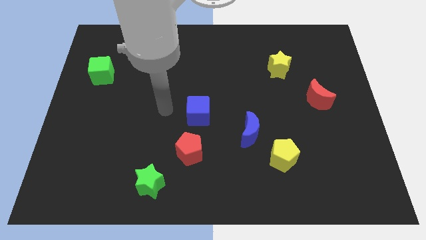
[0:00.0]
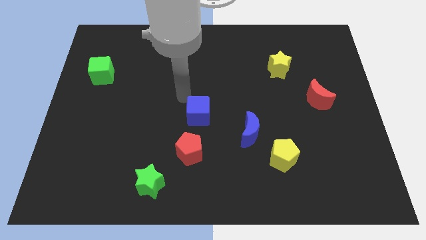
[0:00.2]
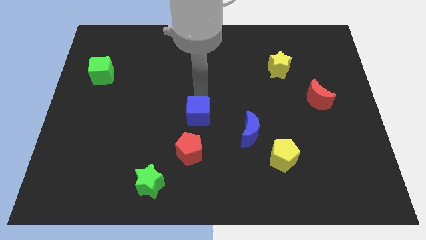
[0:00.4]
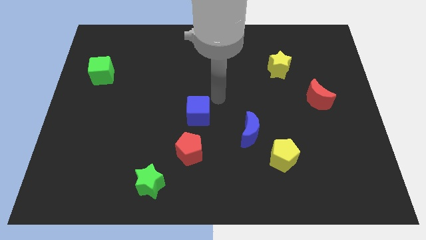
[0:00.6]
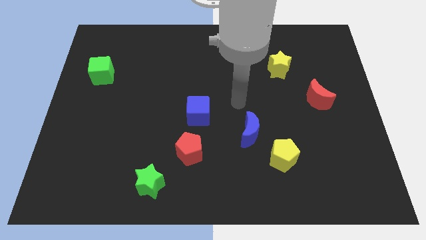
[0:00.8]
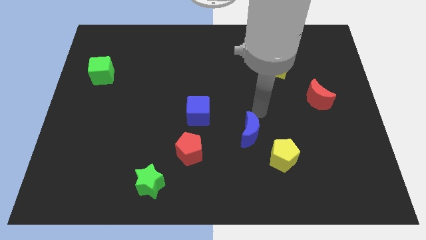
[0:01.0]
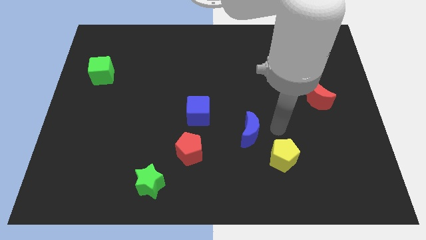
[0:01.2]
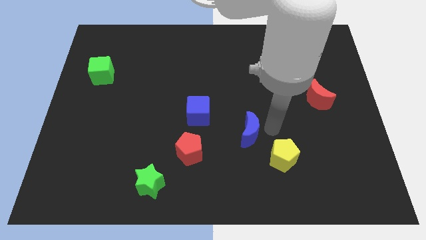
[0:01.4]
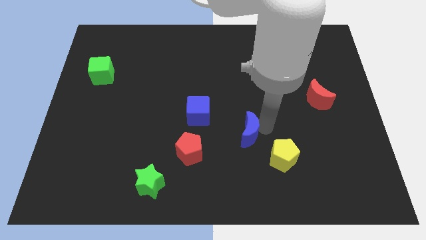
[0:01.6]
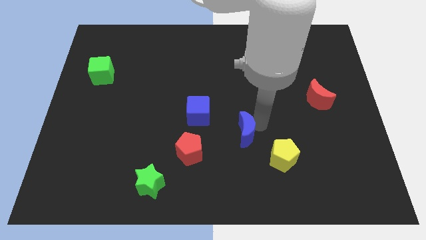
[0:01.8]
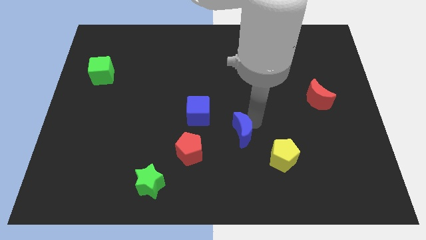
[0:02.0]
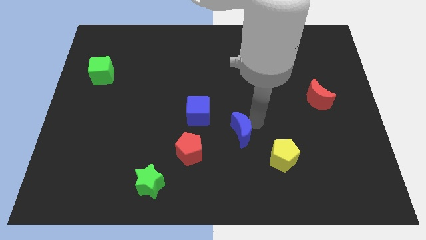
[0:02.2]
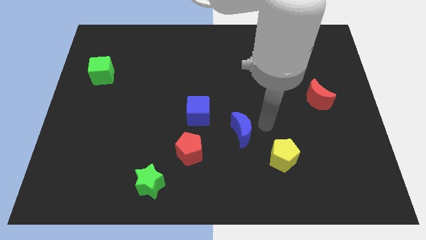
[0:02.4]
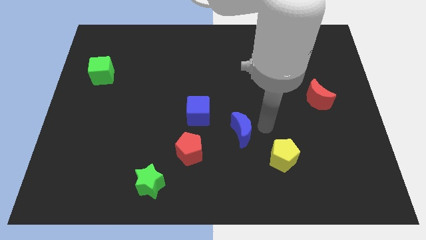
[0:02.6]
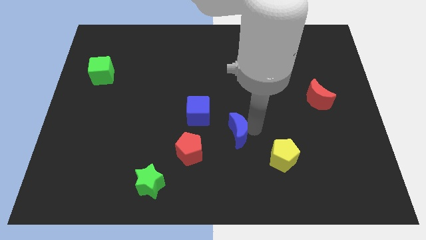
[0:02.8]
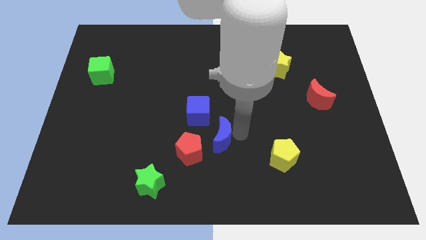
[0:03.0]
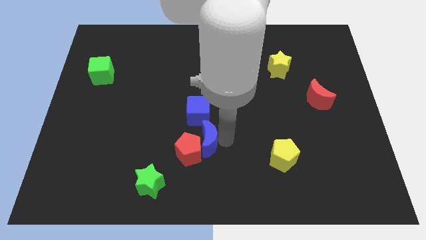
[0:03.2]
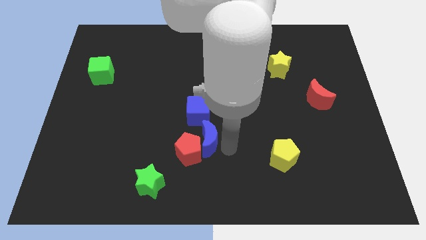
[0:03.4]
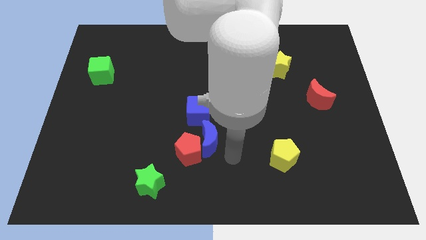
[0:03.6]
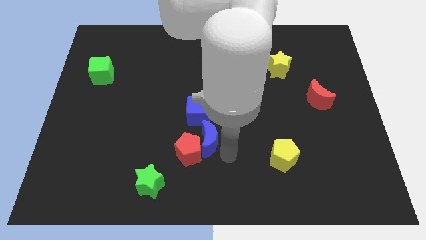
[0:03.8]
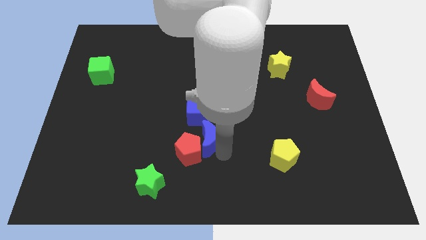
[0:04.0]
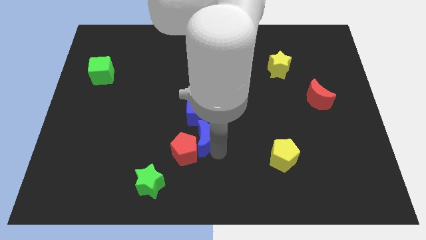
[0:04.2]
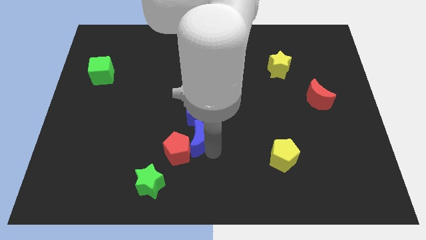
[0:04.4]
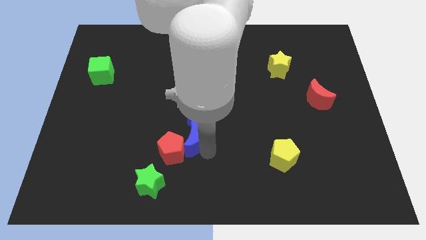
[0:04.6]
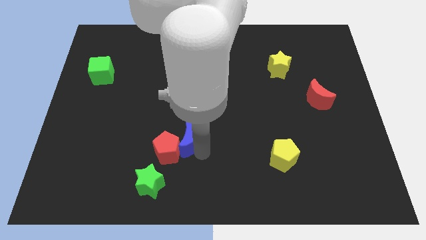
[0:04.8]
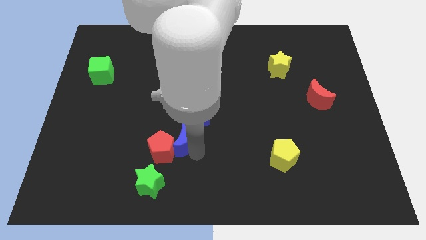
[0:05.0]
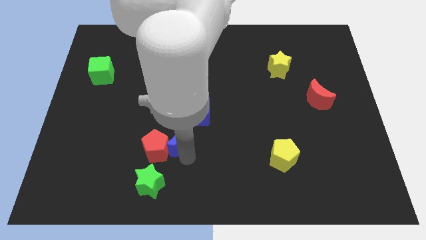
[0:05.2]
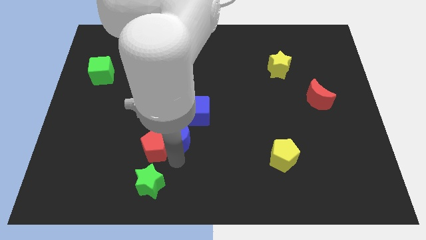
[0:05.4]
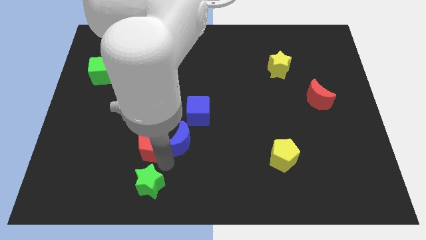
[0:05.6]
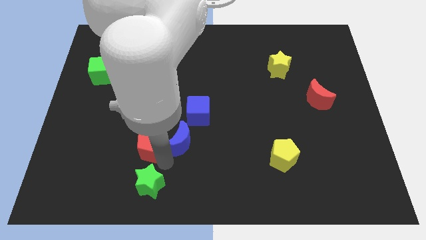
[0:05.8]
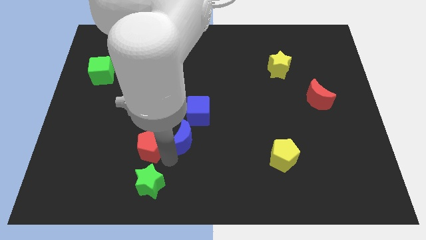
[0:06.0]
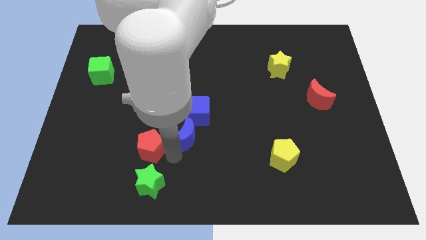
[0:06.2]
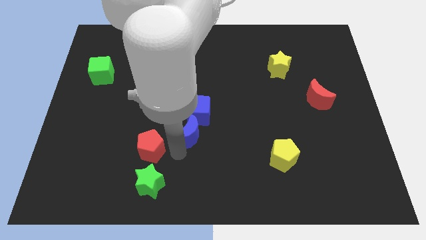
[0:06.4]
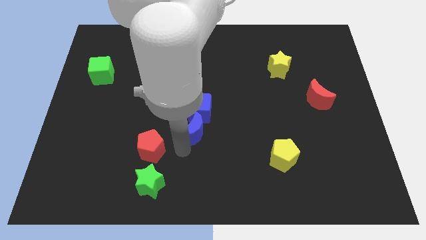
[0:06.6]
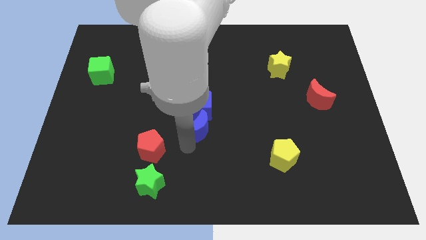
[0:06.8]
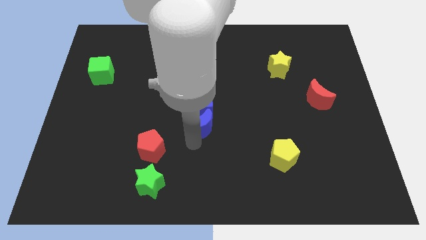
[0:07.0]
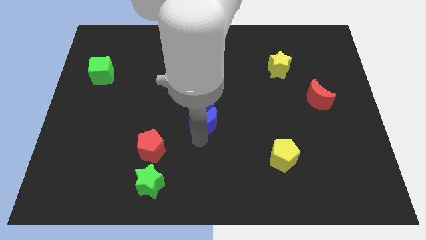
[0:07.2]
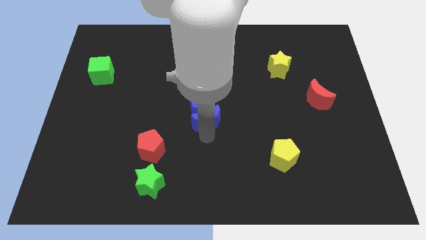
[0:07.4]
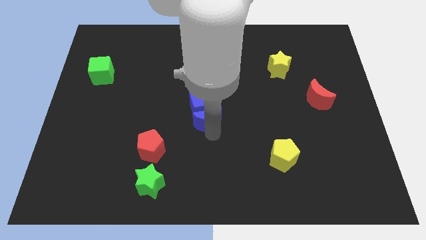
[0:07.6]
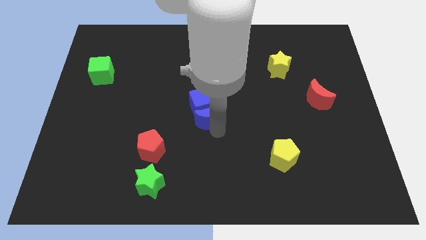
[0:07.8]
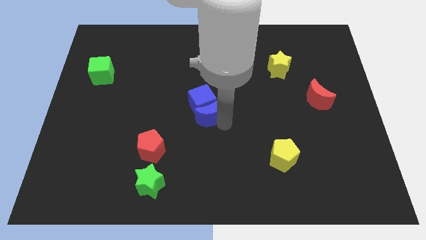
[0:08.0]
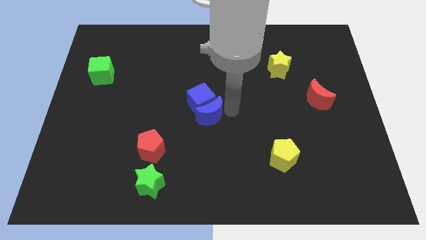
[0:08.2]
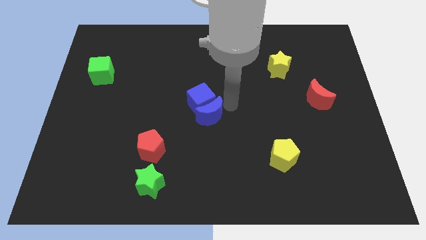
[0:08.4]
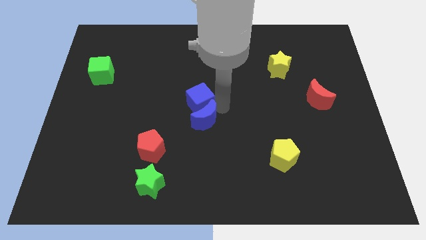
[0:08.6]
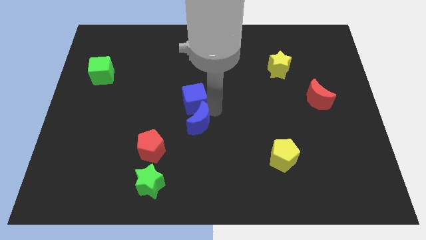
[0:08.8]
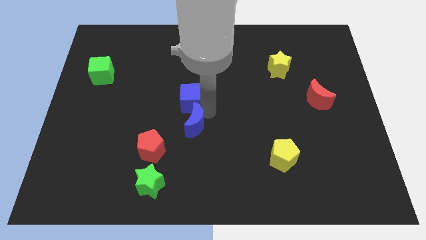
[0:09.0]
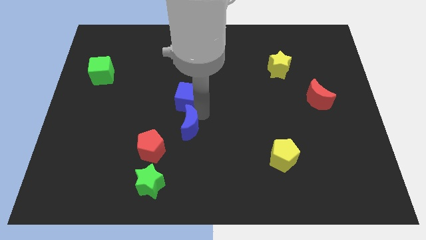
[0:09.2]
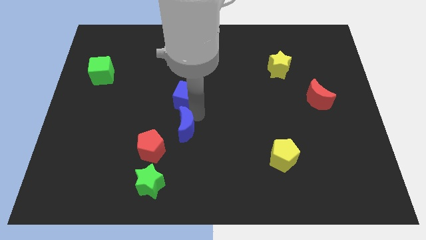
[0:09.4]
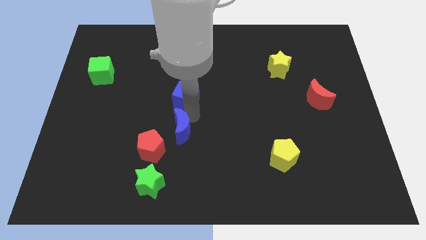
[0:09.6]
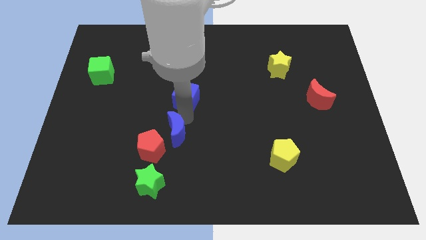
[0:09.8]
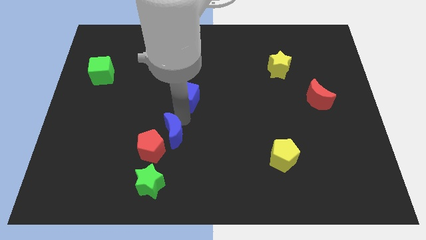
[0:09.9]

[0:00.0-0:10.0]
push the blue moon to the top of the green star

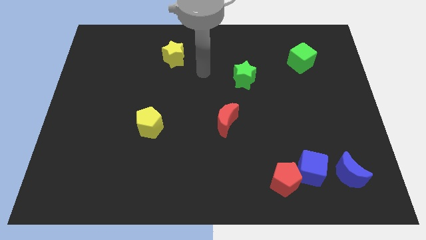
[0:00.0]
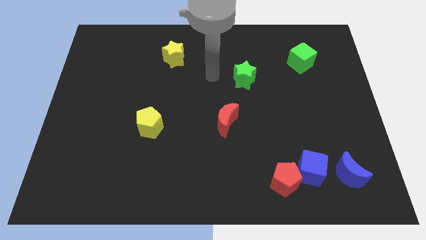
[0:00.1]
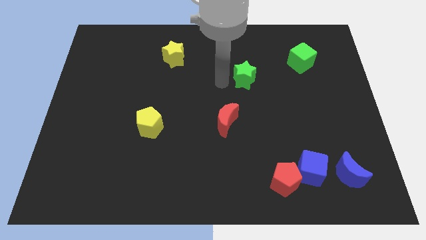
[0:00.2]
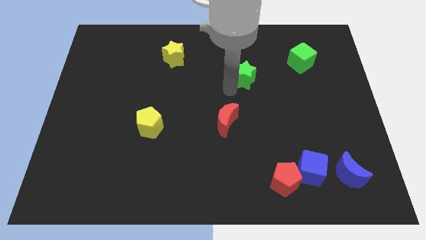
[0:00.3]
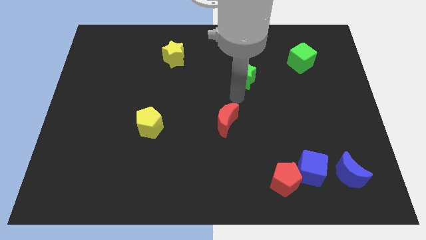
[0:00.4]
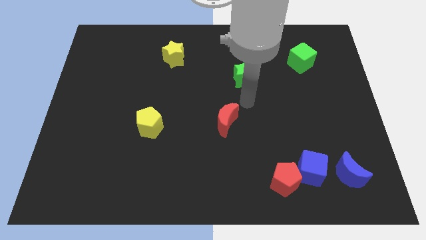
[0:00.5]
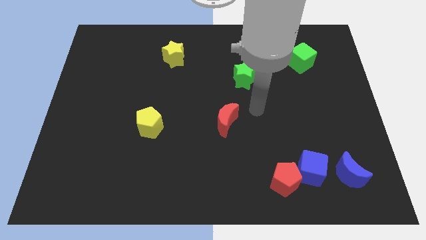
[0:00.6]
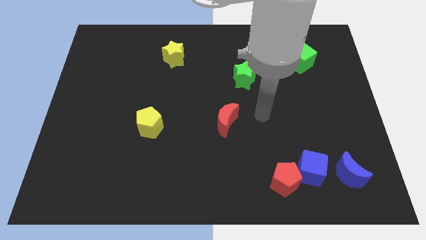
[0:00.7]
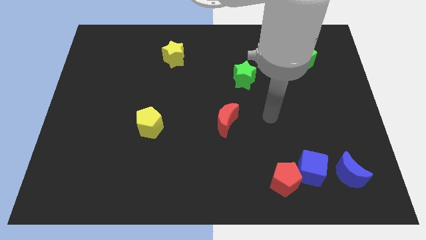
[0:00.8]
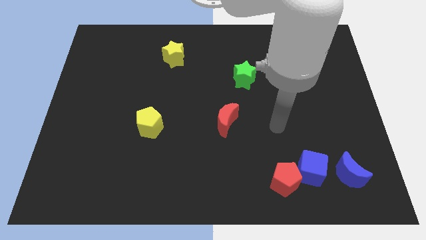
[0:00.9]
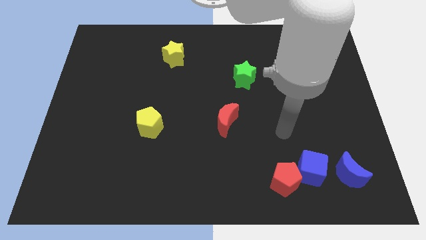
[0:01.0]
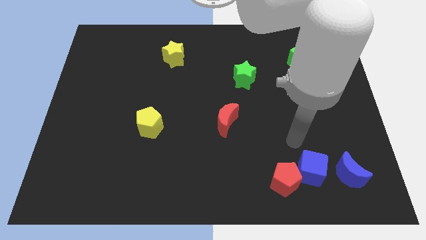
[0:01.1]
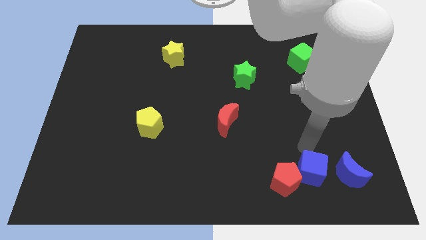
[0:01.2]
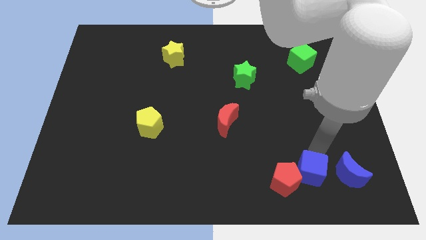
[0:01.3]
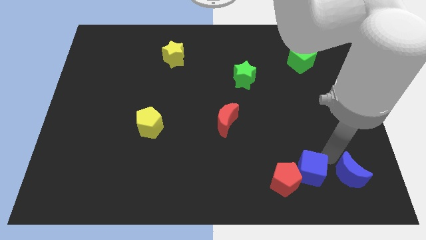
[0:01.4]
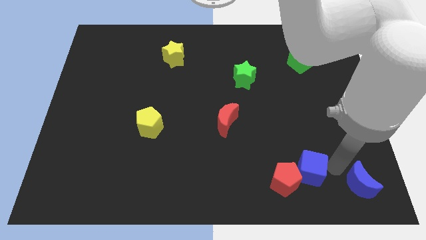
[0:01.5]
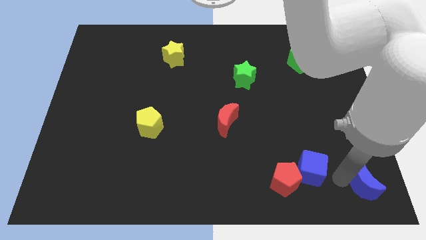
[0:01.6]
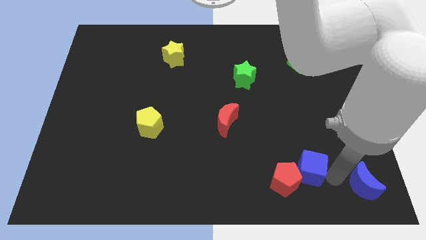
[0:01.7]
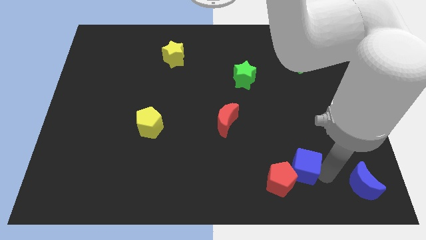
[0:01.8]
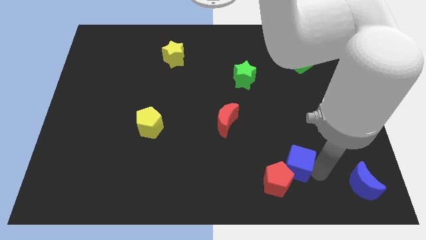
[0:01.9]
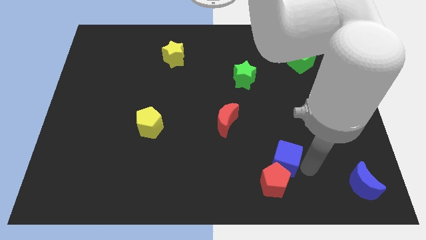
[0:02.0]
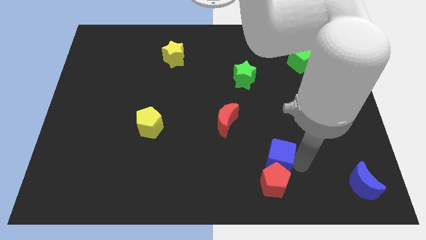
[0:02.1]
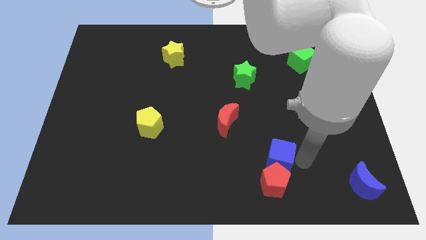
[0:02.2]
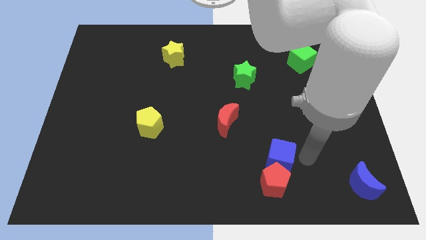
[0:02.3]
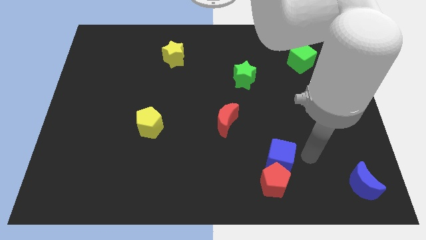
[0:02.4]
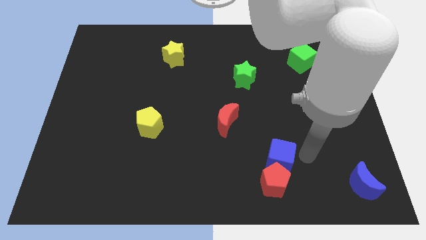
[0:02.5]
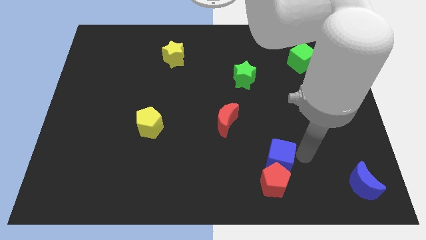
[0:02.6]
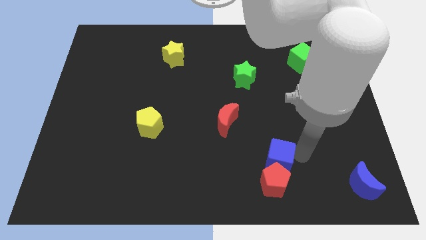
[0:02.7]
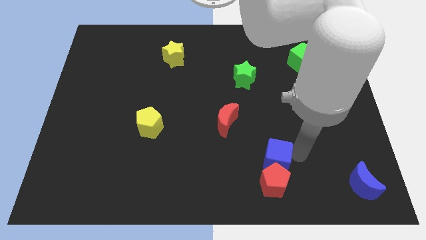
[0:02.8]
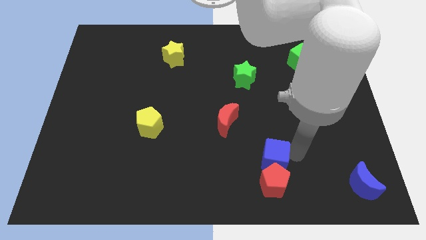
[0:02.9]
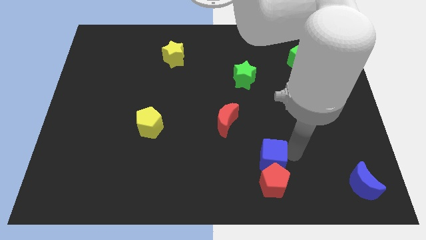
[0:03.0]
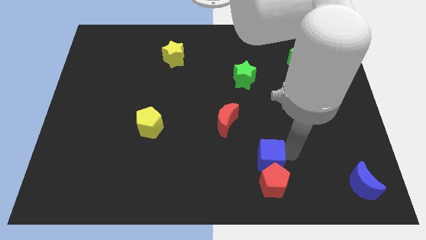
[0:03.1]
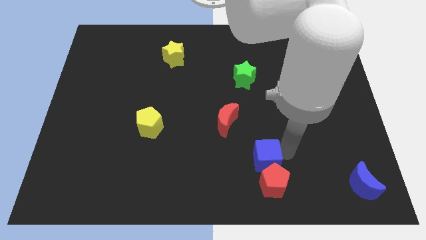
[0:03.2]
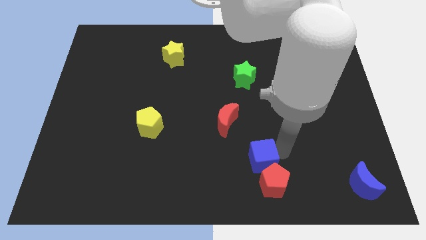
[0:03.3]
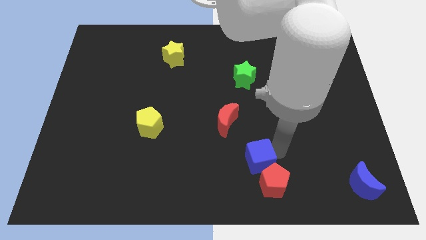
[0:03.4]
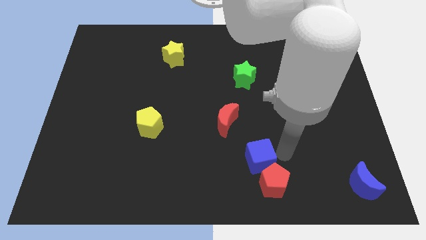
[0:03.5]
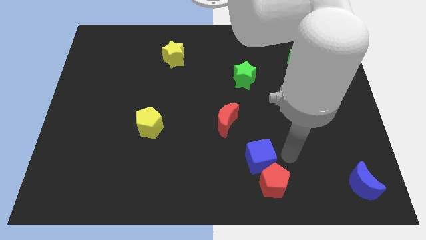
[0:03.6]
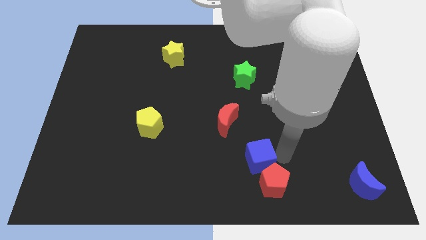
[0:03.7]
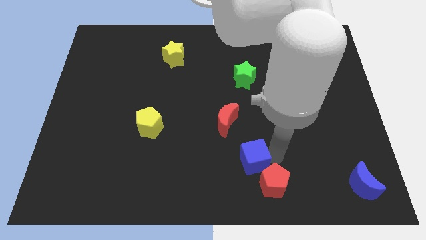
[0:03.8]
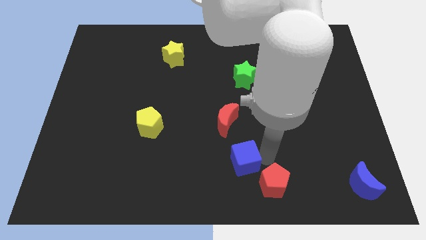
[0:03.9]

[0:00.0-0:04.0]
slide the blue cube to the bottom side of the red moon
